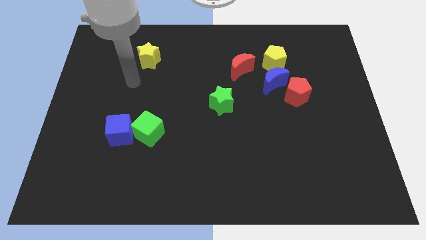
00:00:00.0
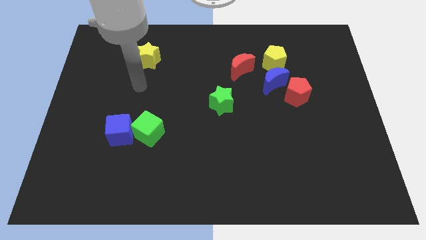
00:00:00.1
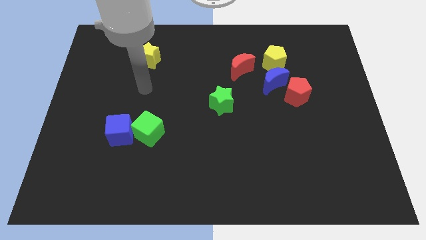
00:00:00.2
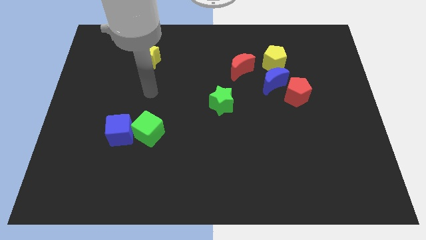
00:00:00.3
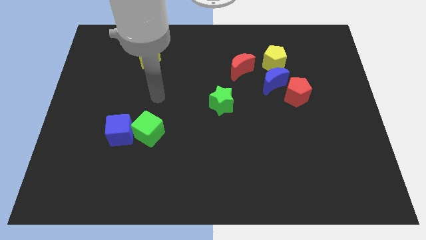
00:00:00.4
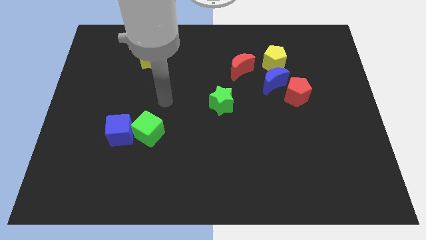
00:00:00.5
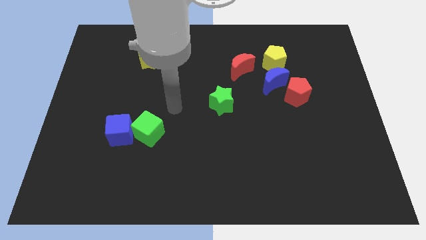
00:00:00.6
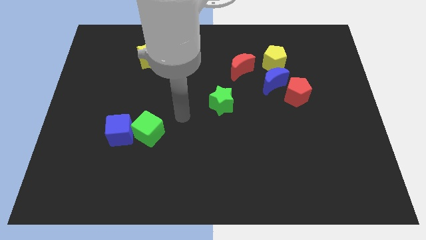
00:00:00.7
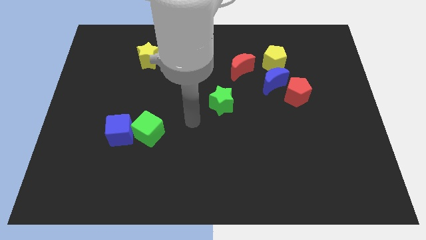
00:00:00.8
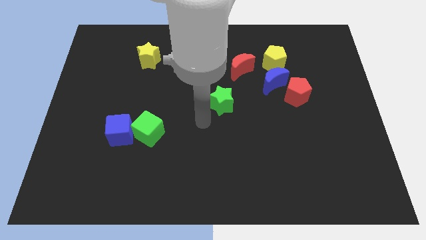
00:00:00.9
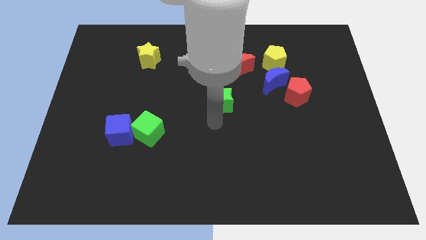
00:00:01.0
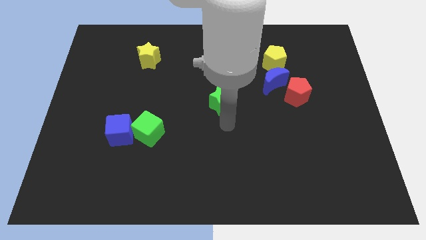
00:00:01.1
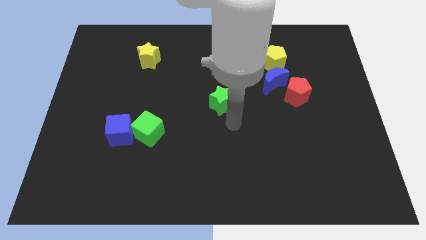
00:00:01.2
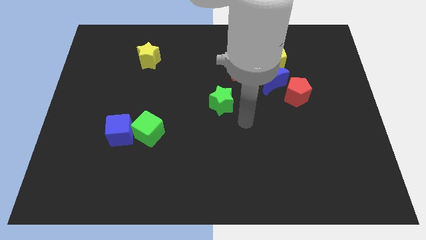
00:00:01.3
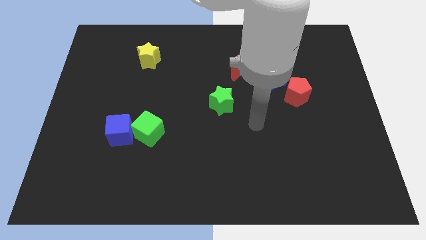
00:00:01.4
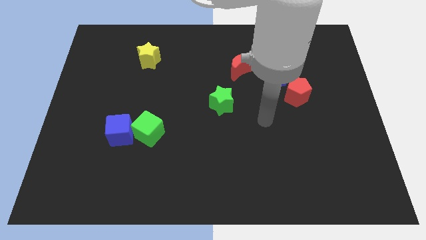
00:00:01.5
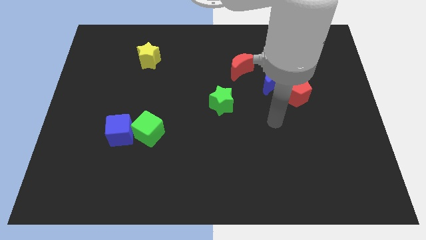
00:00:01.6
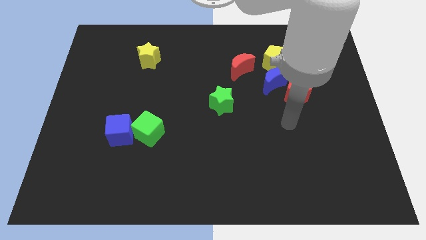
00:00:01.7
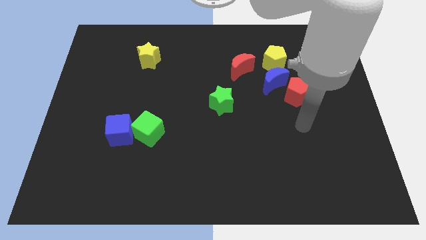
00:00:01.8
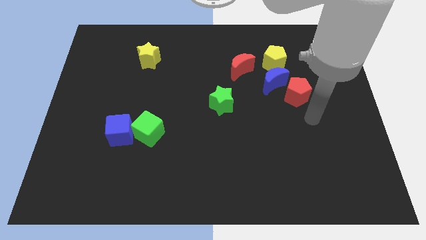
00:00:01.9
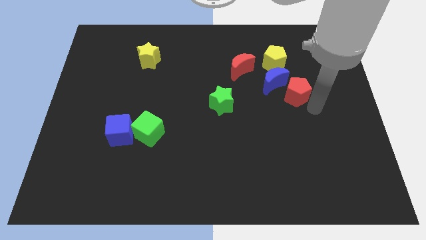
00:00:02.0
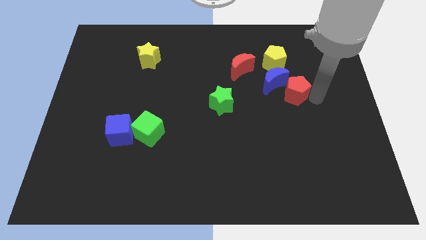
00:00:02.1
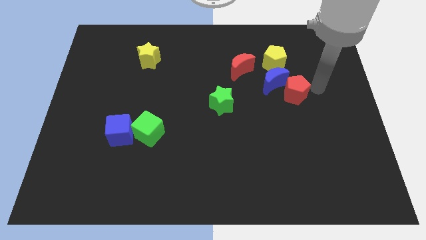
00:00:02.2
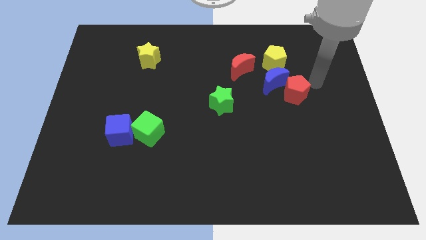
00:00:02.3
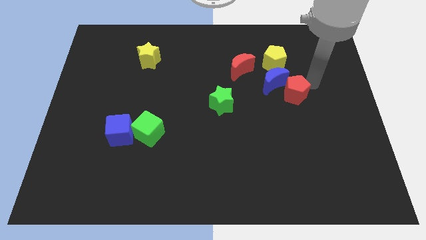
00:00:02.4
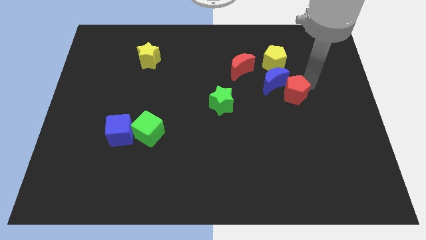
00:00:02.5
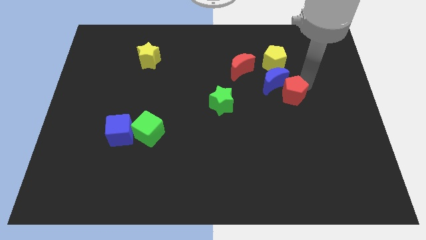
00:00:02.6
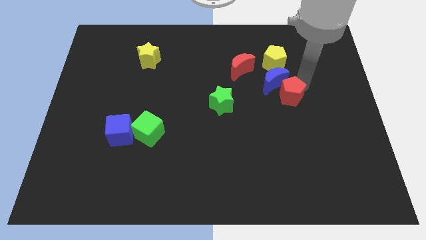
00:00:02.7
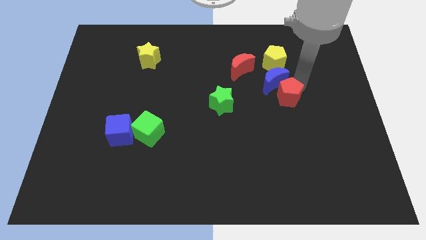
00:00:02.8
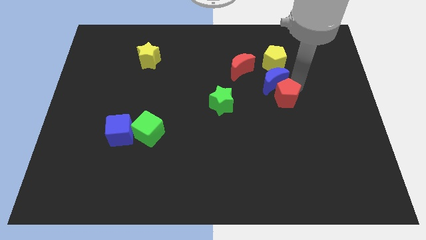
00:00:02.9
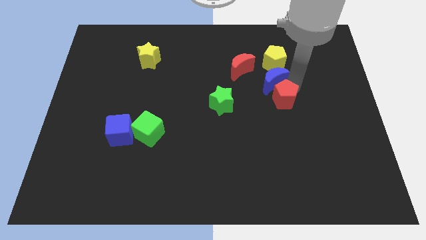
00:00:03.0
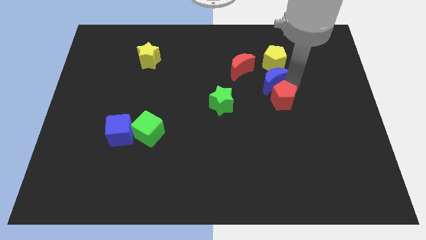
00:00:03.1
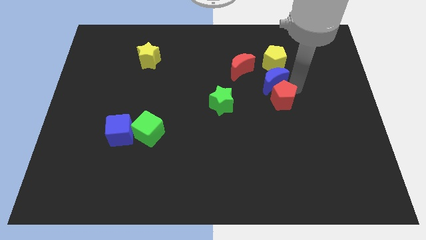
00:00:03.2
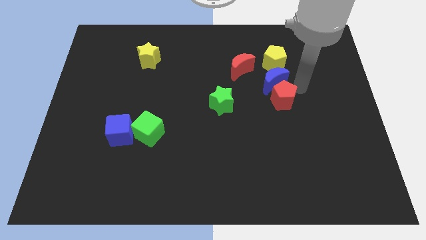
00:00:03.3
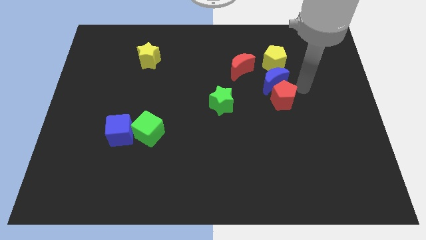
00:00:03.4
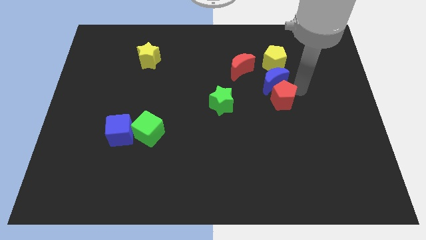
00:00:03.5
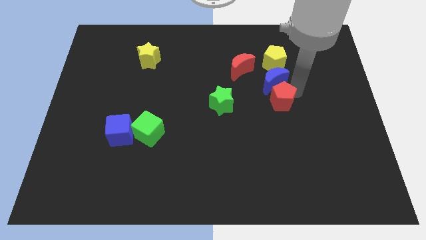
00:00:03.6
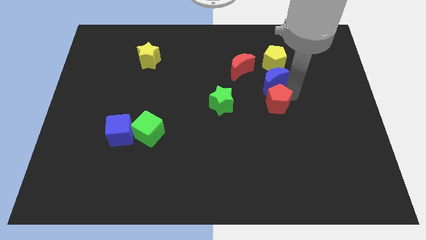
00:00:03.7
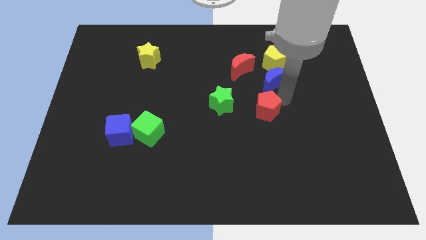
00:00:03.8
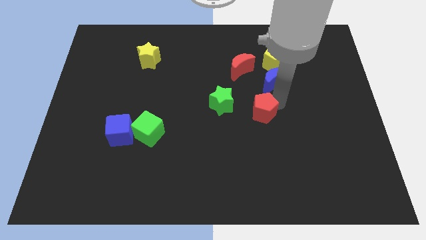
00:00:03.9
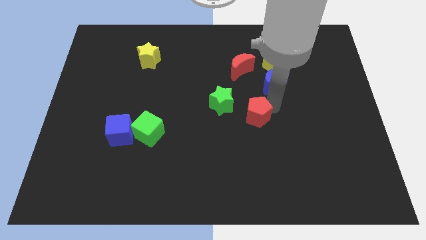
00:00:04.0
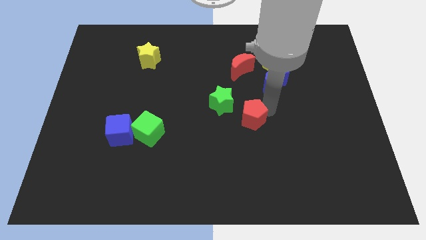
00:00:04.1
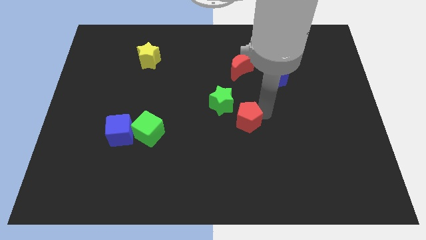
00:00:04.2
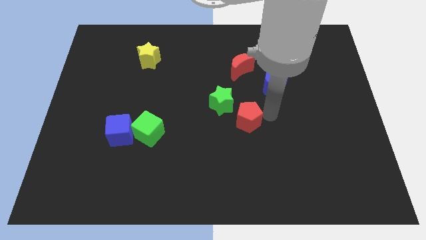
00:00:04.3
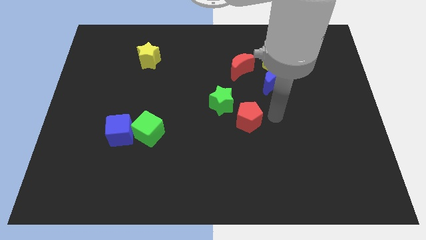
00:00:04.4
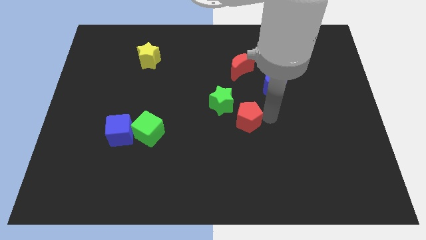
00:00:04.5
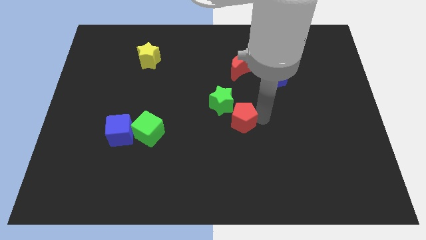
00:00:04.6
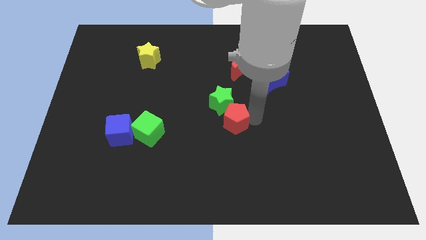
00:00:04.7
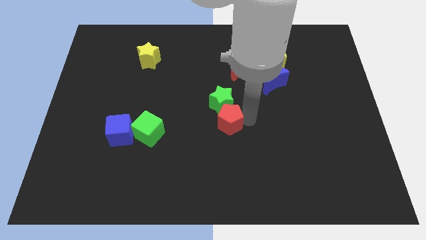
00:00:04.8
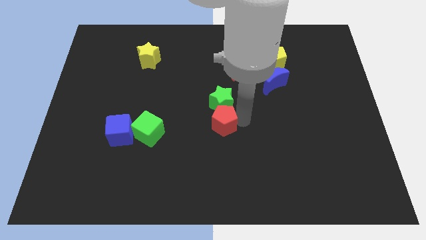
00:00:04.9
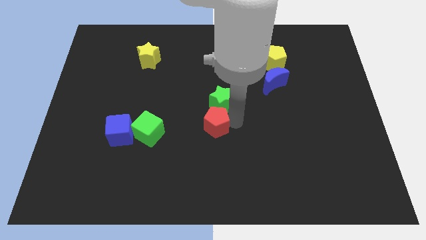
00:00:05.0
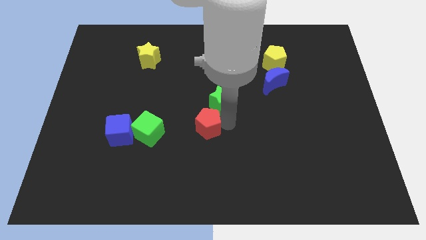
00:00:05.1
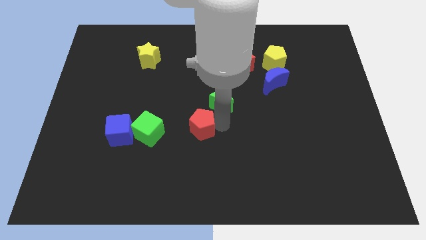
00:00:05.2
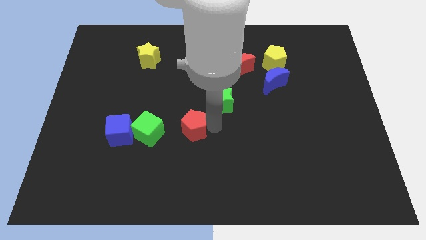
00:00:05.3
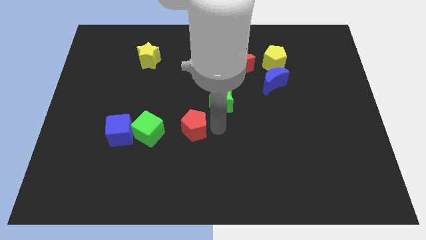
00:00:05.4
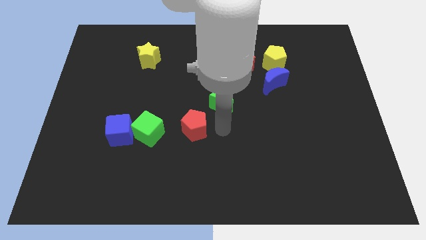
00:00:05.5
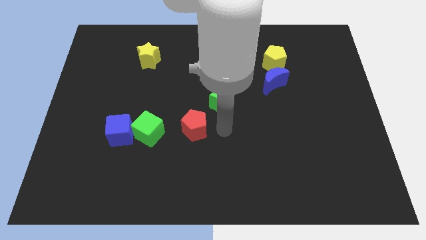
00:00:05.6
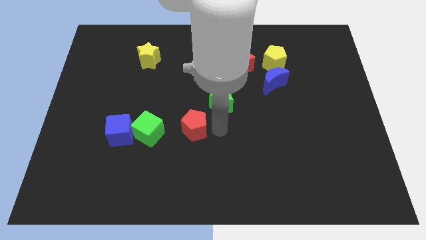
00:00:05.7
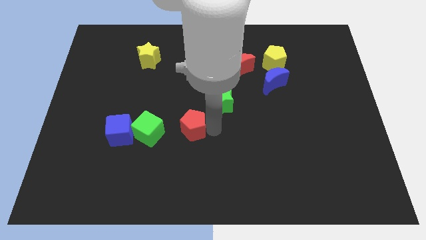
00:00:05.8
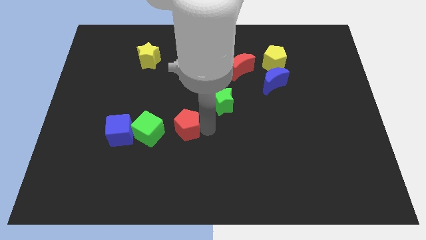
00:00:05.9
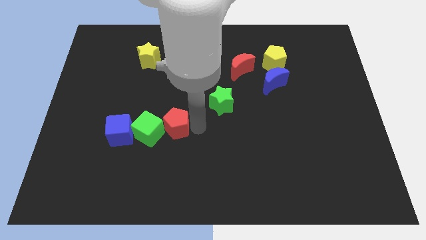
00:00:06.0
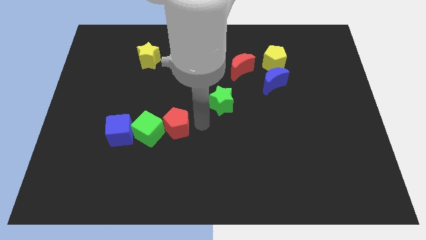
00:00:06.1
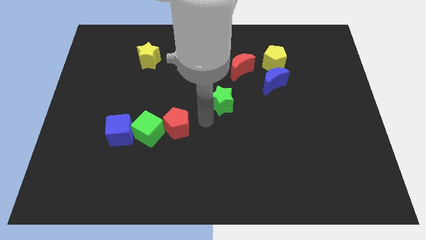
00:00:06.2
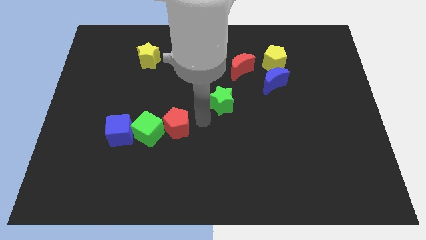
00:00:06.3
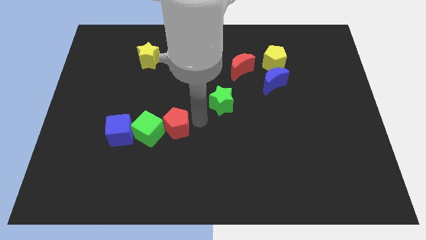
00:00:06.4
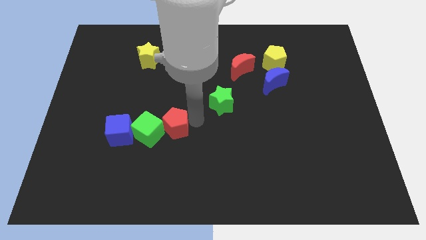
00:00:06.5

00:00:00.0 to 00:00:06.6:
move the red pentagon to the green cube
